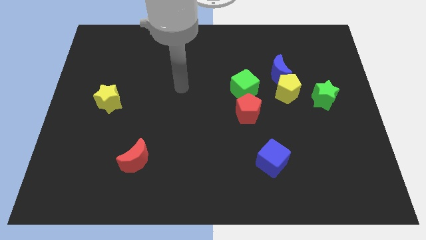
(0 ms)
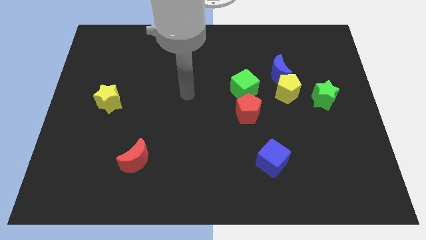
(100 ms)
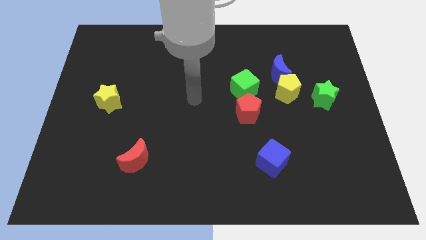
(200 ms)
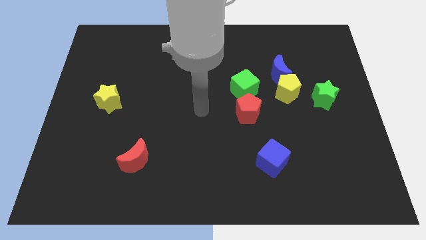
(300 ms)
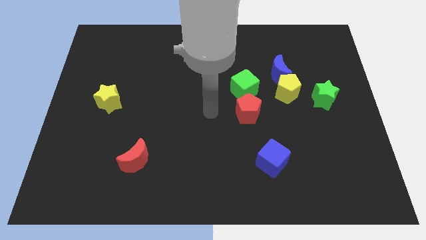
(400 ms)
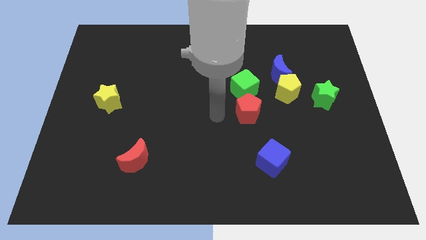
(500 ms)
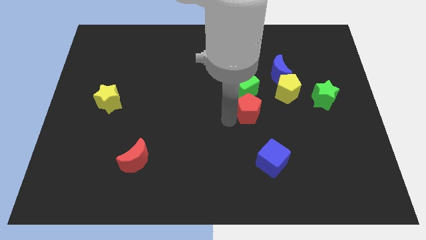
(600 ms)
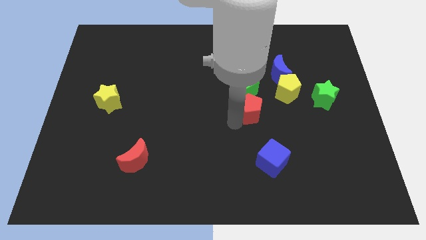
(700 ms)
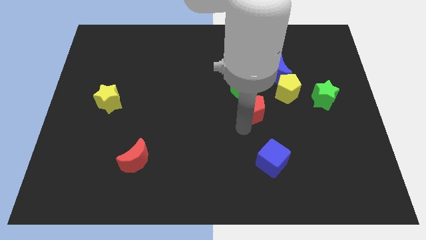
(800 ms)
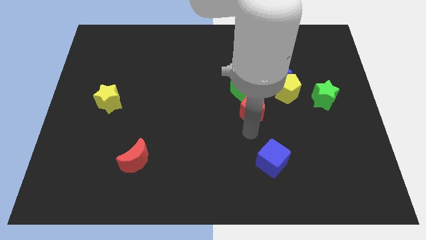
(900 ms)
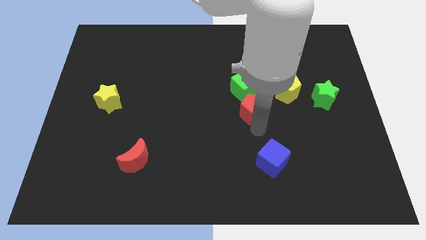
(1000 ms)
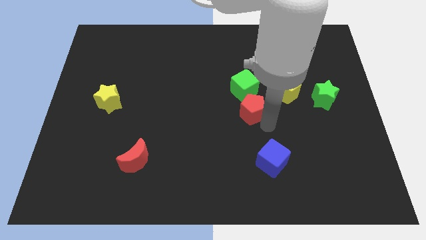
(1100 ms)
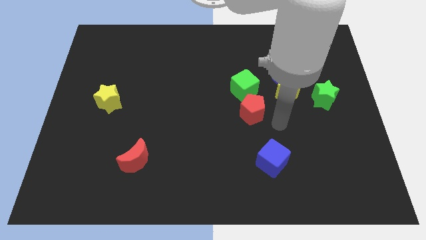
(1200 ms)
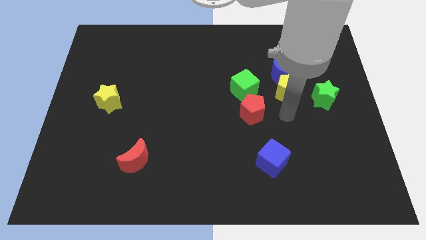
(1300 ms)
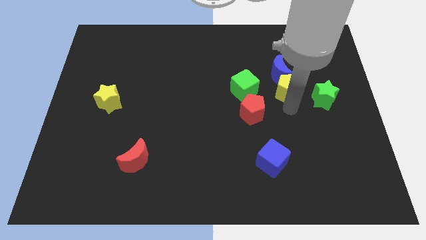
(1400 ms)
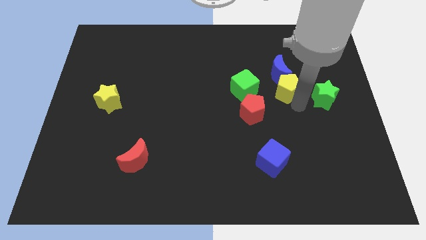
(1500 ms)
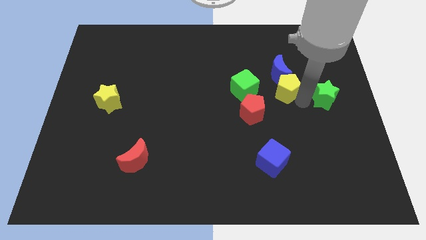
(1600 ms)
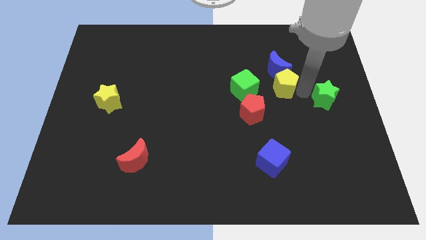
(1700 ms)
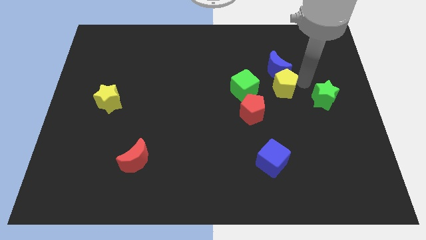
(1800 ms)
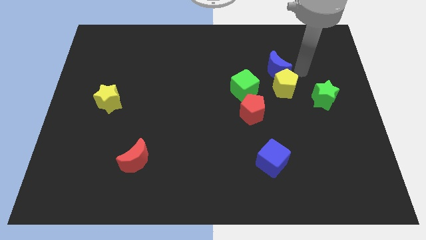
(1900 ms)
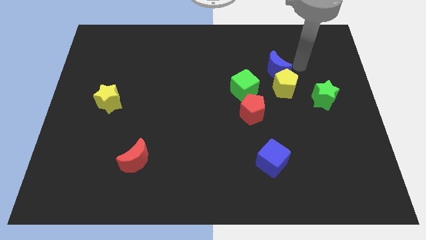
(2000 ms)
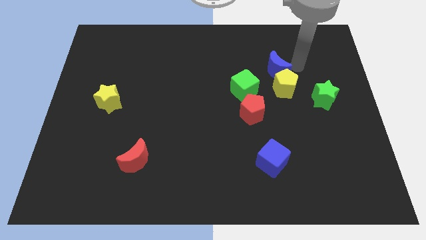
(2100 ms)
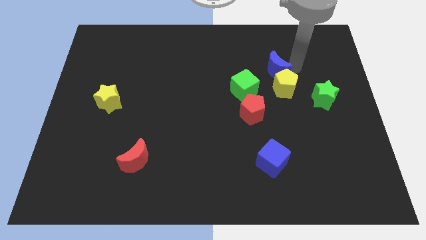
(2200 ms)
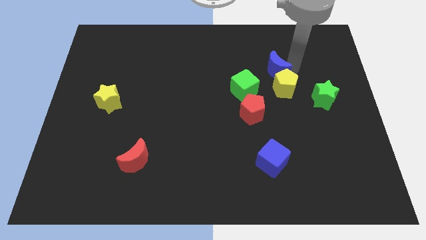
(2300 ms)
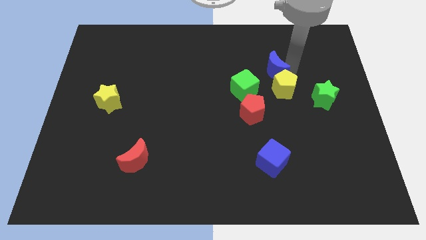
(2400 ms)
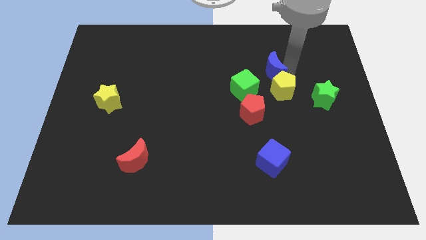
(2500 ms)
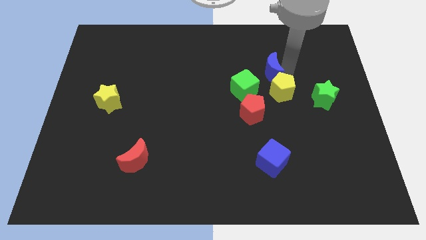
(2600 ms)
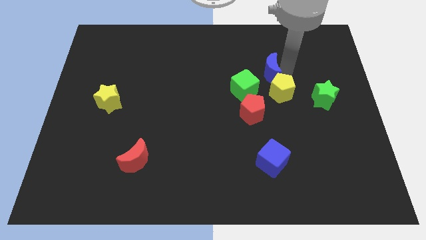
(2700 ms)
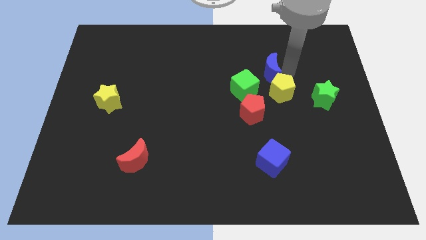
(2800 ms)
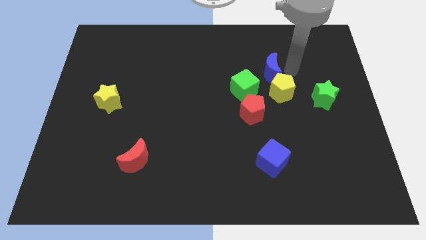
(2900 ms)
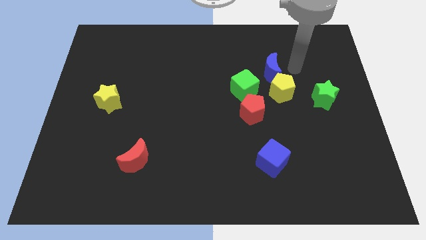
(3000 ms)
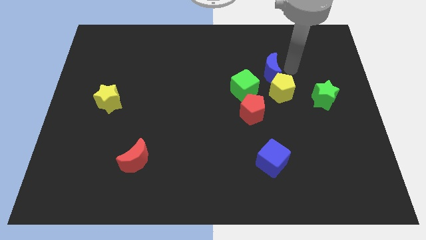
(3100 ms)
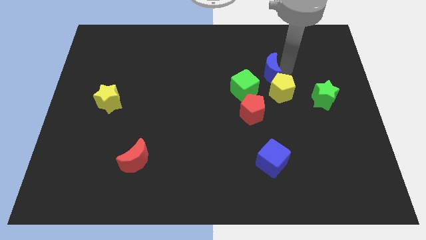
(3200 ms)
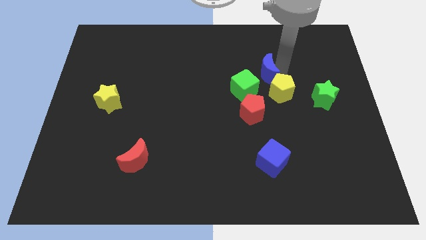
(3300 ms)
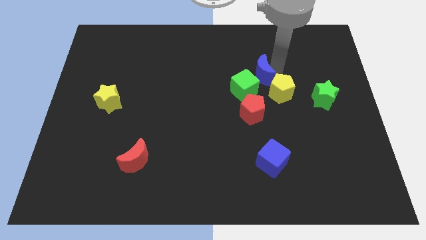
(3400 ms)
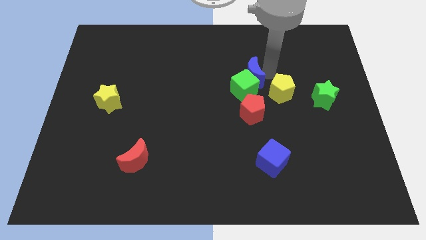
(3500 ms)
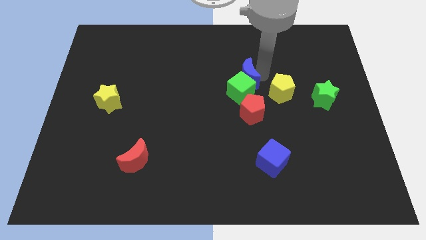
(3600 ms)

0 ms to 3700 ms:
slide the blue moon left a bit

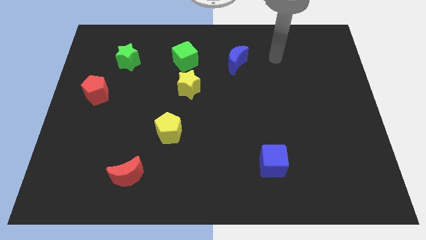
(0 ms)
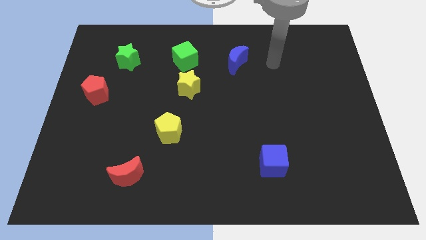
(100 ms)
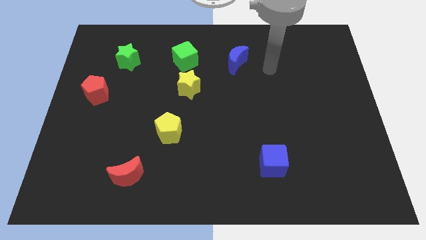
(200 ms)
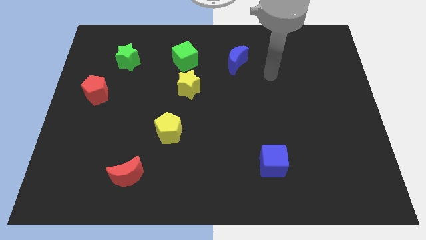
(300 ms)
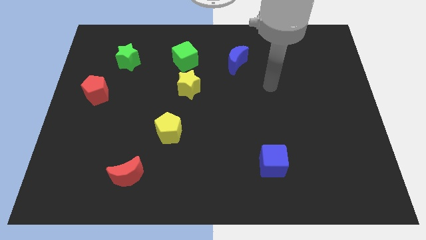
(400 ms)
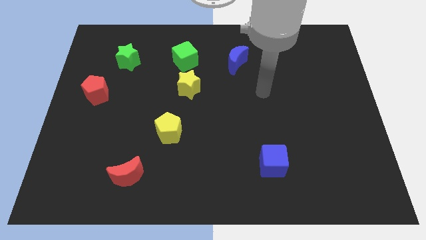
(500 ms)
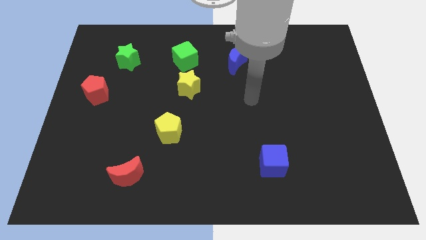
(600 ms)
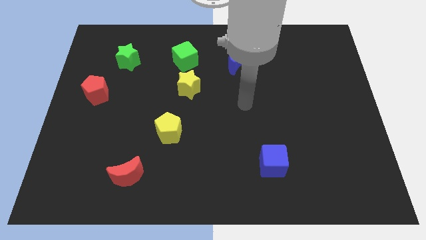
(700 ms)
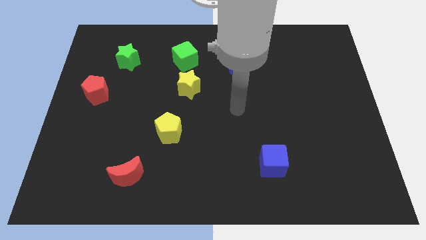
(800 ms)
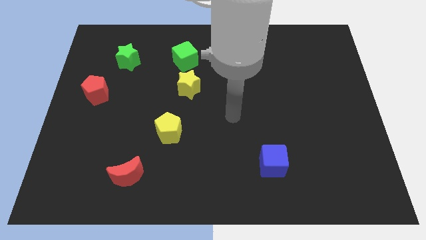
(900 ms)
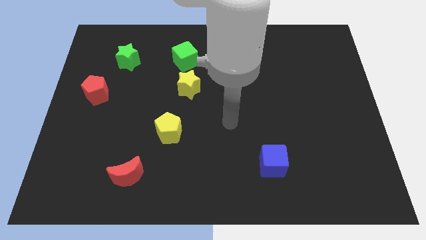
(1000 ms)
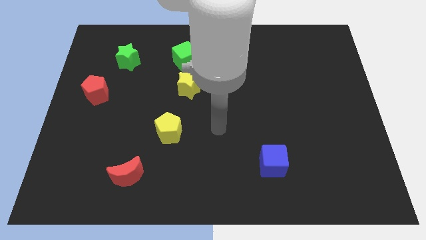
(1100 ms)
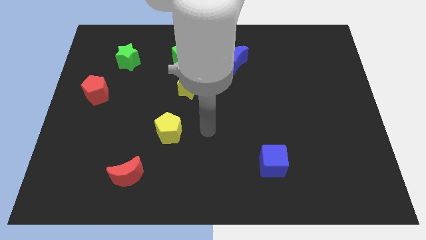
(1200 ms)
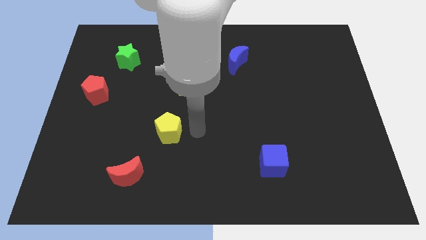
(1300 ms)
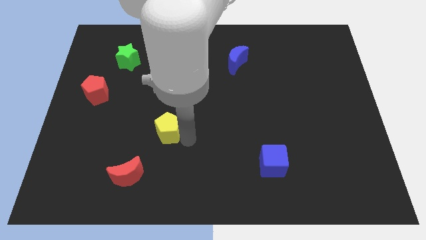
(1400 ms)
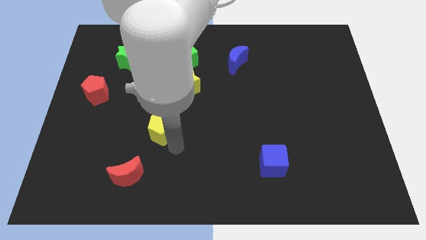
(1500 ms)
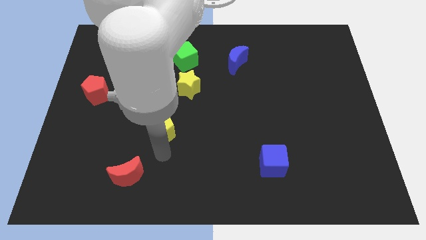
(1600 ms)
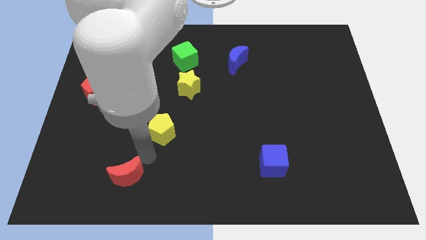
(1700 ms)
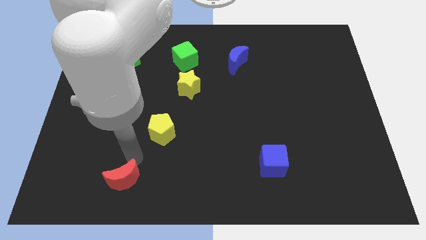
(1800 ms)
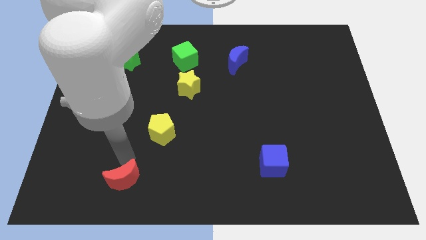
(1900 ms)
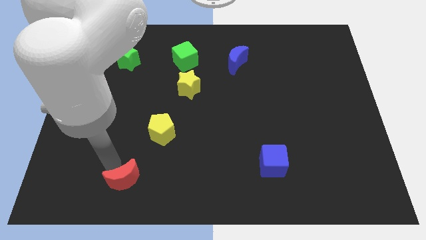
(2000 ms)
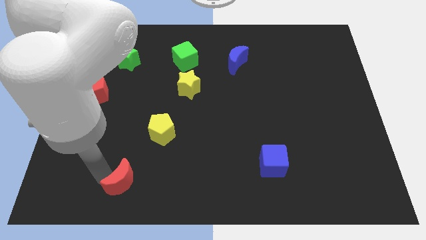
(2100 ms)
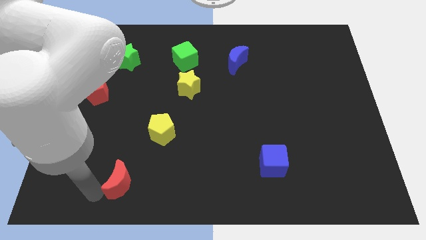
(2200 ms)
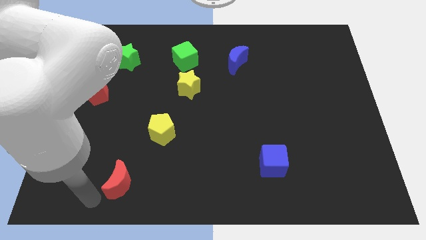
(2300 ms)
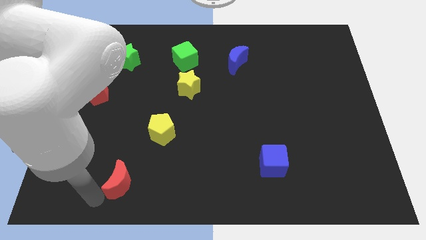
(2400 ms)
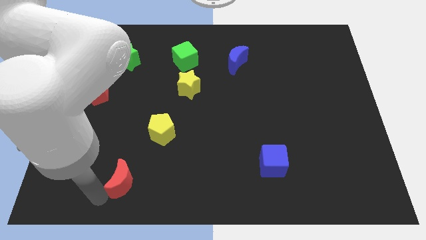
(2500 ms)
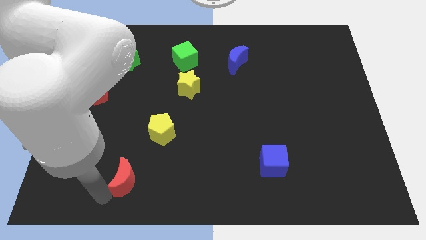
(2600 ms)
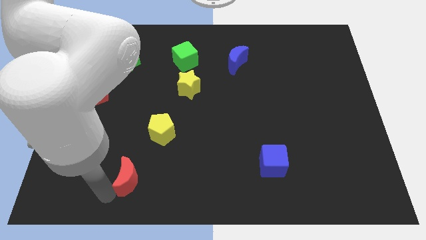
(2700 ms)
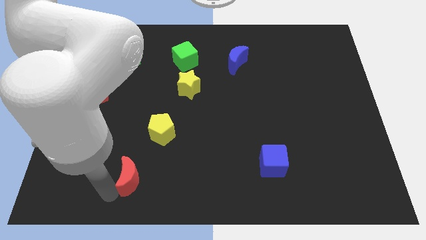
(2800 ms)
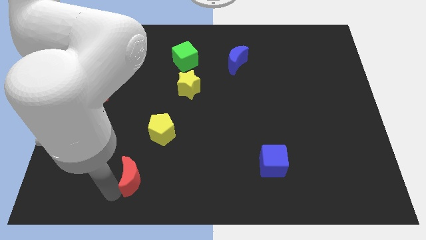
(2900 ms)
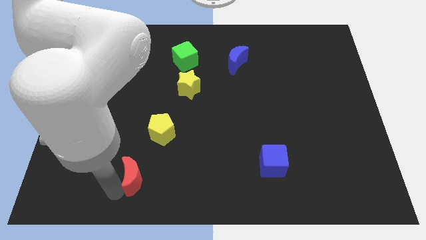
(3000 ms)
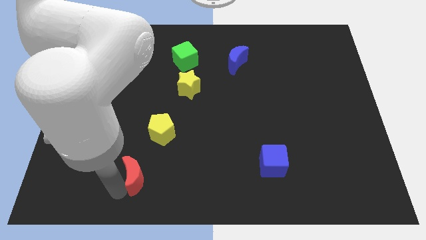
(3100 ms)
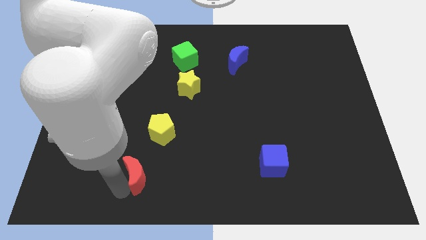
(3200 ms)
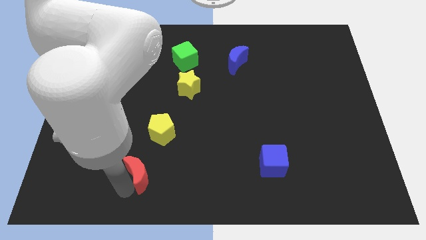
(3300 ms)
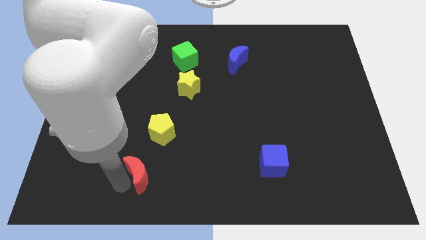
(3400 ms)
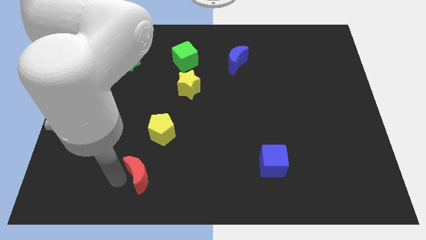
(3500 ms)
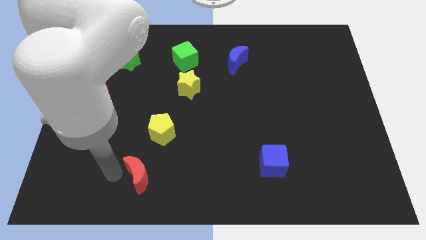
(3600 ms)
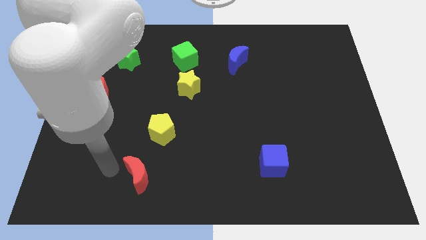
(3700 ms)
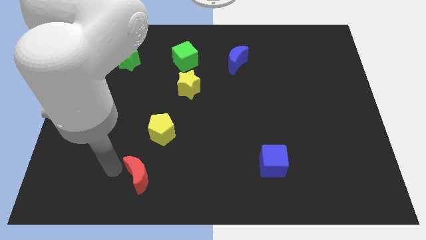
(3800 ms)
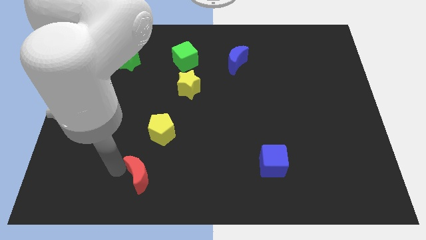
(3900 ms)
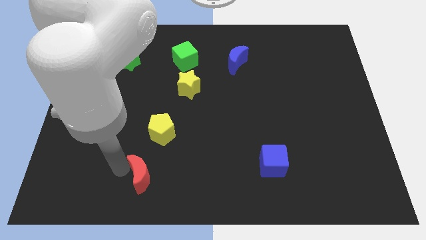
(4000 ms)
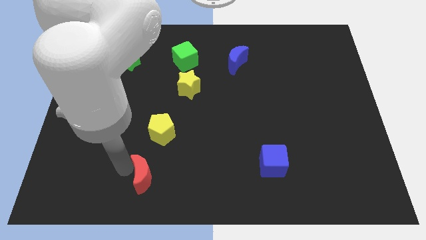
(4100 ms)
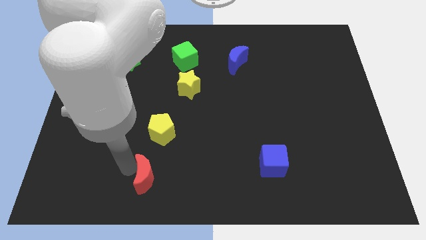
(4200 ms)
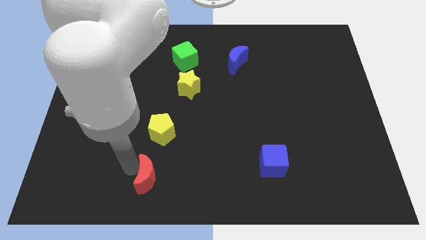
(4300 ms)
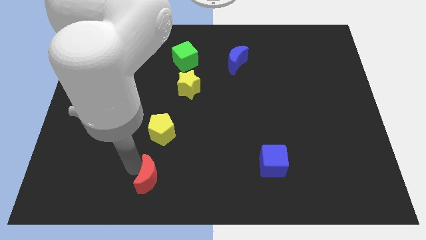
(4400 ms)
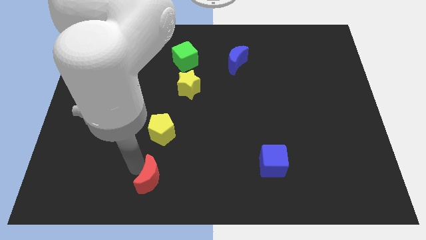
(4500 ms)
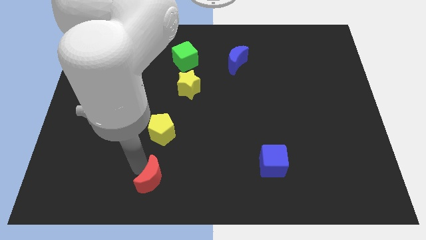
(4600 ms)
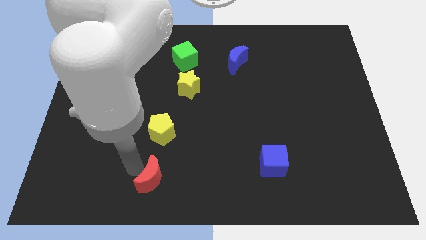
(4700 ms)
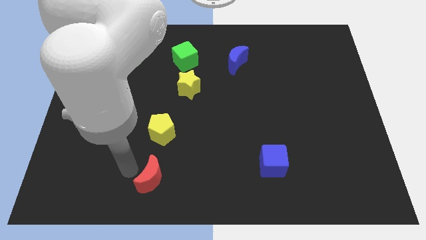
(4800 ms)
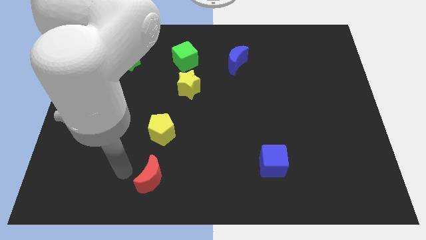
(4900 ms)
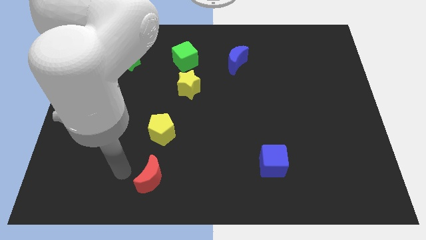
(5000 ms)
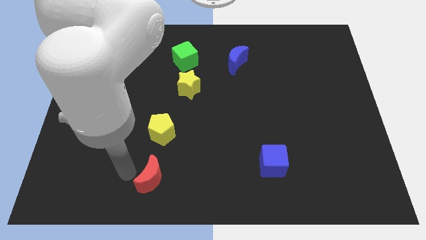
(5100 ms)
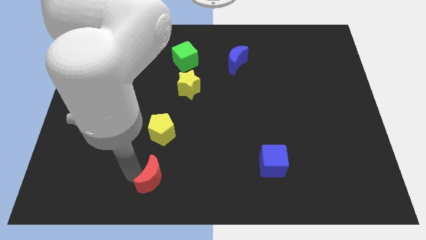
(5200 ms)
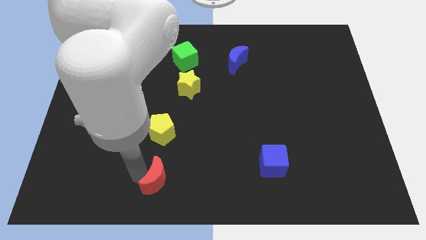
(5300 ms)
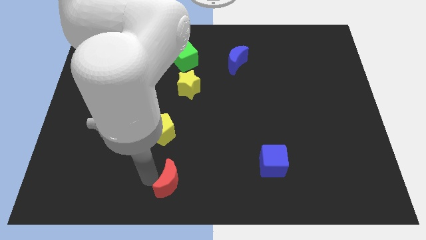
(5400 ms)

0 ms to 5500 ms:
slightly push the red moon to the right
